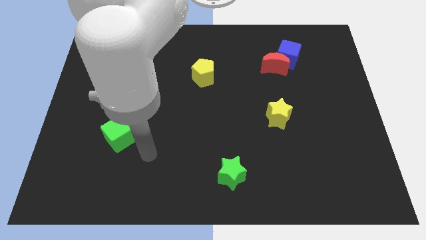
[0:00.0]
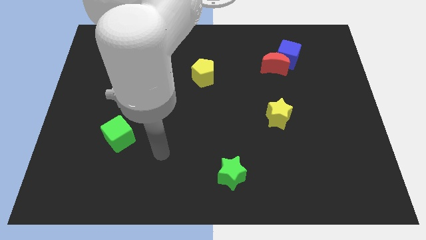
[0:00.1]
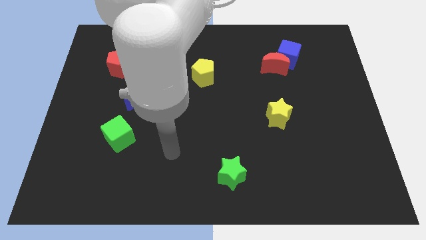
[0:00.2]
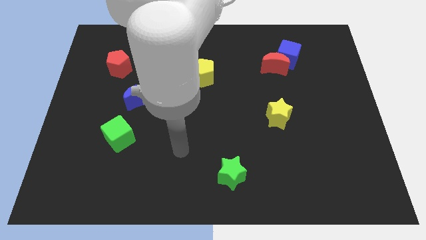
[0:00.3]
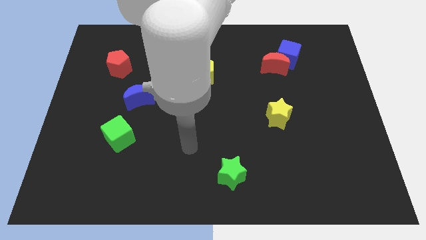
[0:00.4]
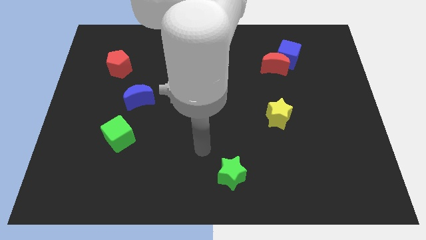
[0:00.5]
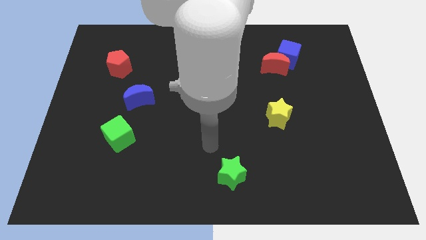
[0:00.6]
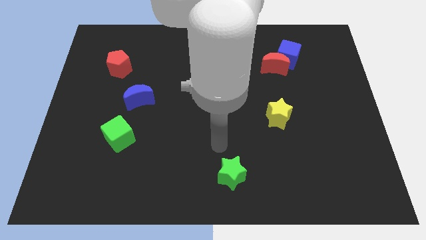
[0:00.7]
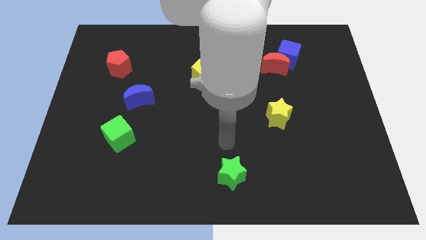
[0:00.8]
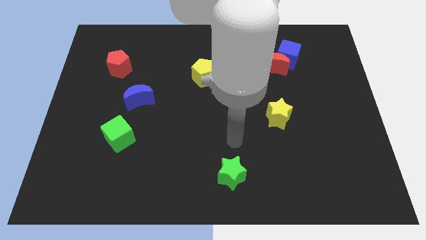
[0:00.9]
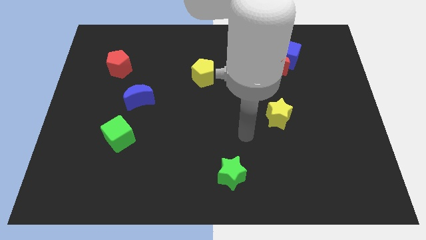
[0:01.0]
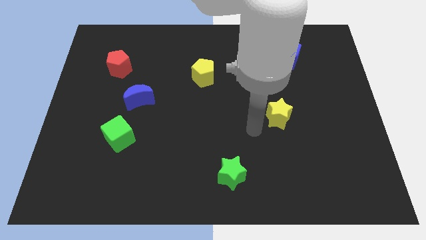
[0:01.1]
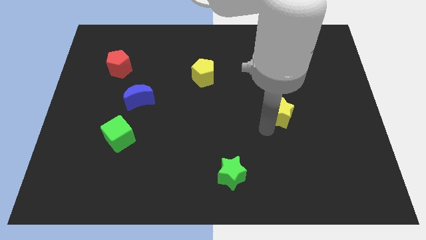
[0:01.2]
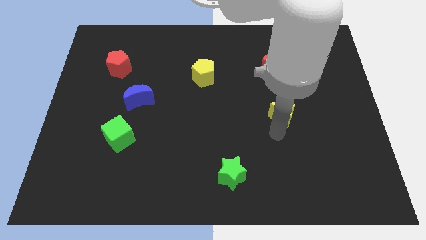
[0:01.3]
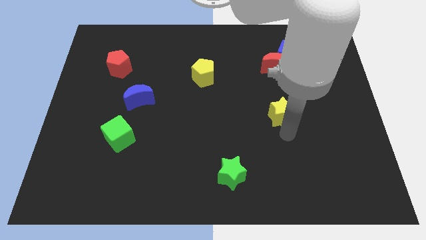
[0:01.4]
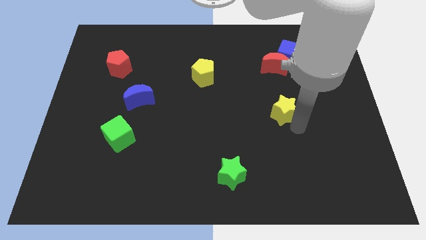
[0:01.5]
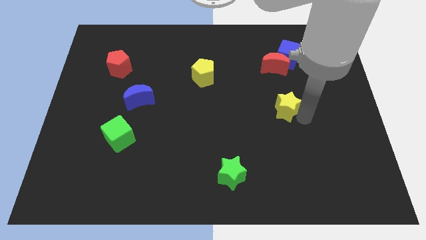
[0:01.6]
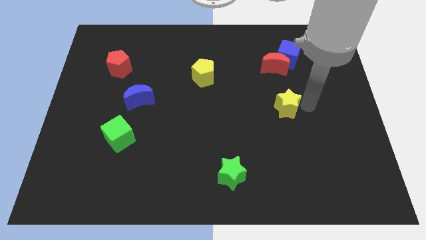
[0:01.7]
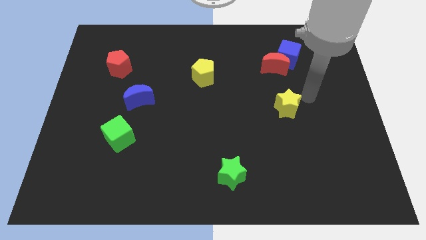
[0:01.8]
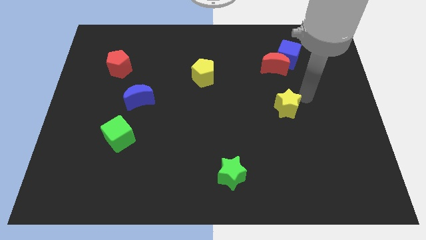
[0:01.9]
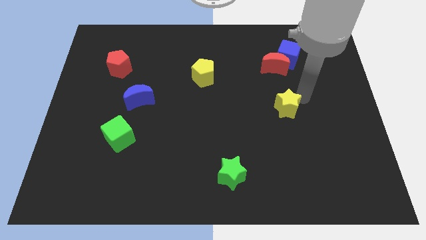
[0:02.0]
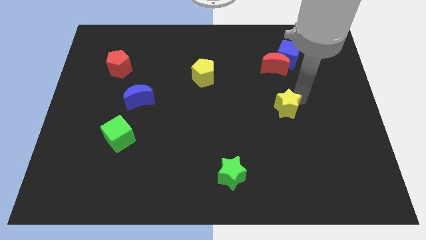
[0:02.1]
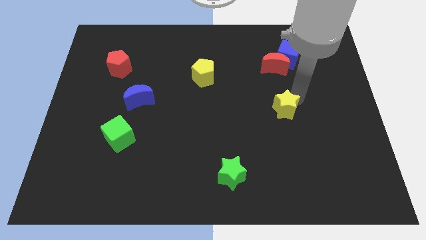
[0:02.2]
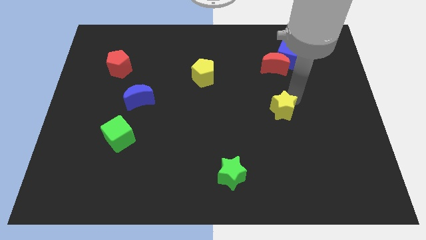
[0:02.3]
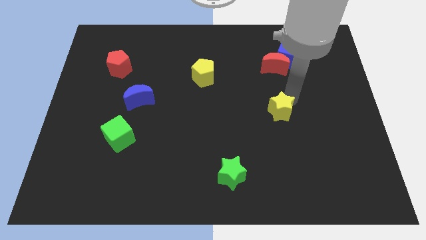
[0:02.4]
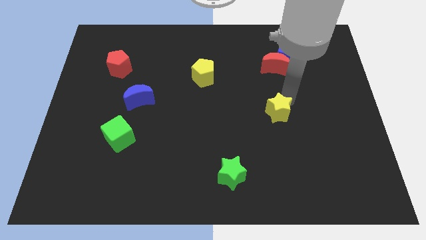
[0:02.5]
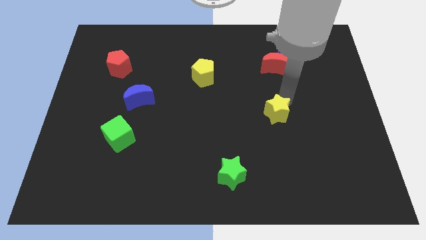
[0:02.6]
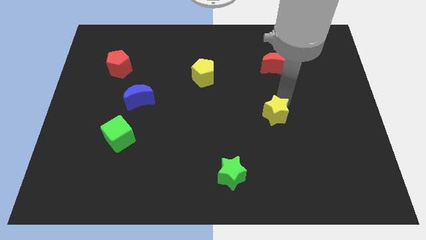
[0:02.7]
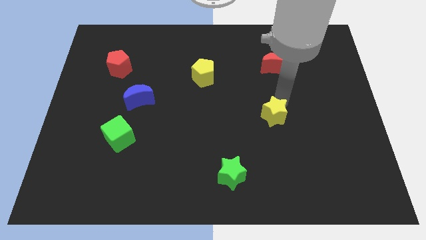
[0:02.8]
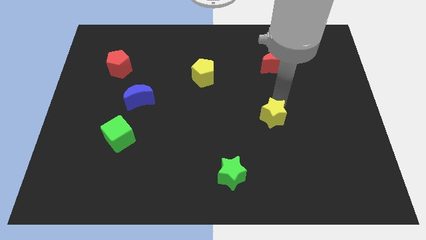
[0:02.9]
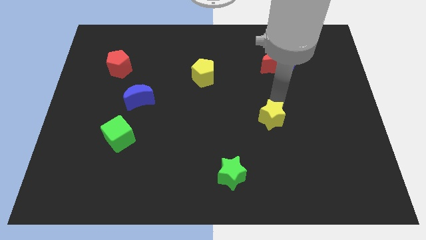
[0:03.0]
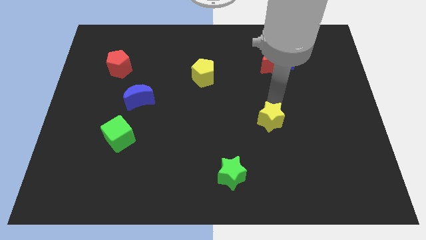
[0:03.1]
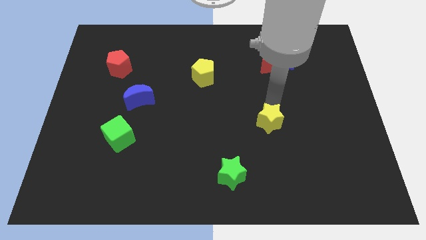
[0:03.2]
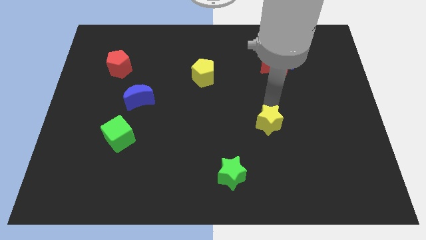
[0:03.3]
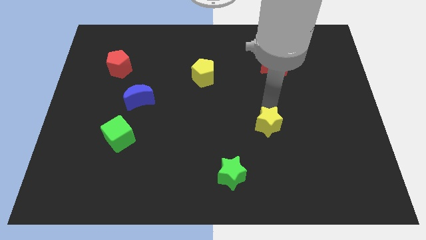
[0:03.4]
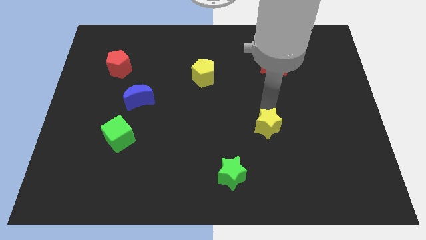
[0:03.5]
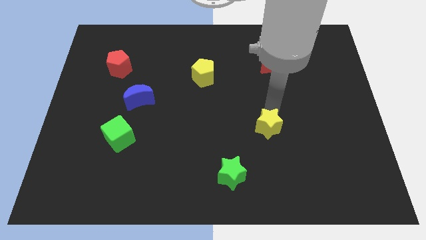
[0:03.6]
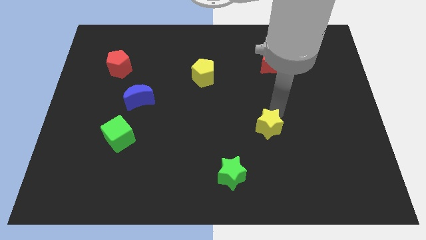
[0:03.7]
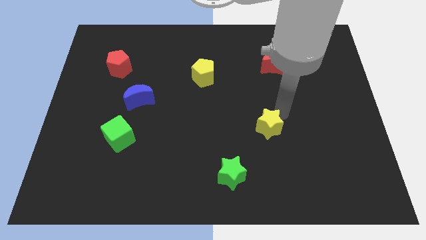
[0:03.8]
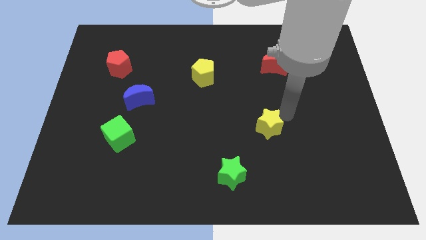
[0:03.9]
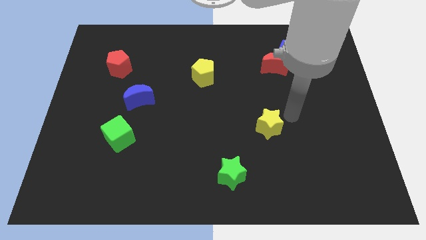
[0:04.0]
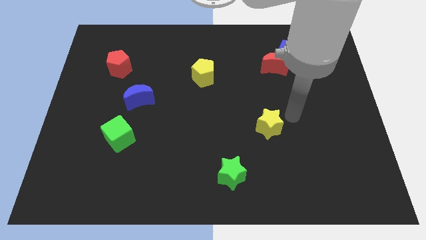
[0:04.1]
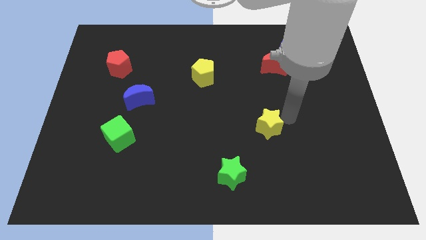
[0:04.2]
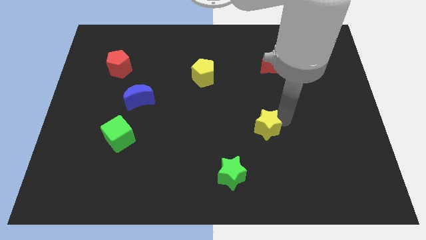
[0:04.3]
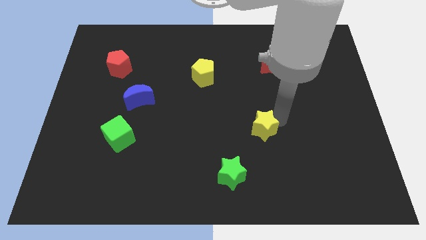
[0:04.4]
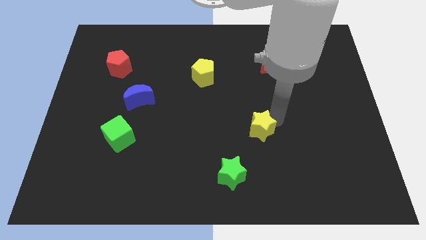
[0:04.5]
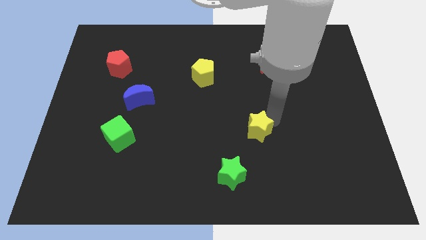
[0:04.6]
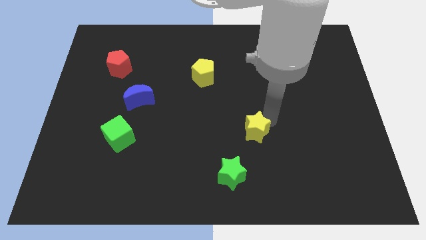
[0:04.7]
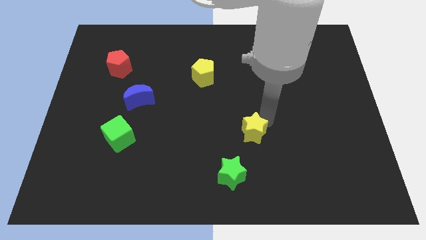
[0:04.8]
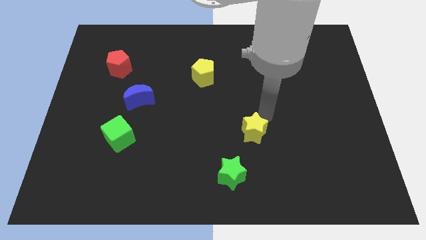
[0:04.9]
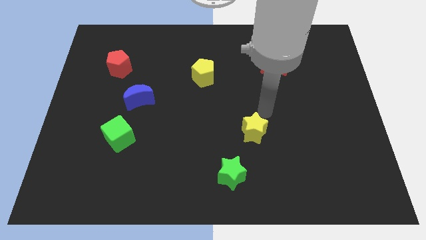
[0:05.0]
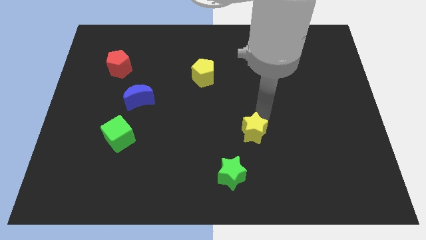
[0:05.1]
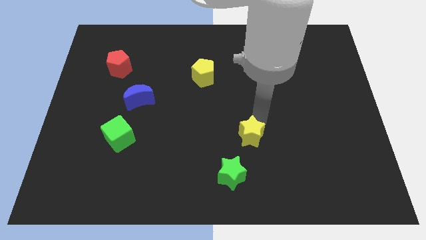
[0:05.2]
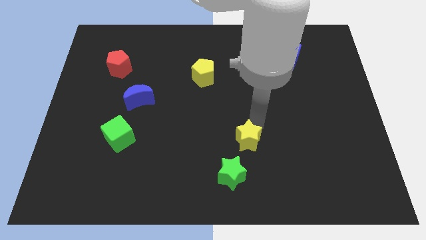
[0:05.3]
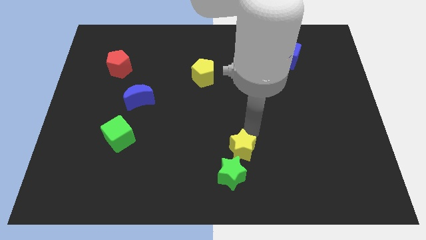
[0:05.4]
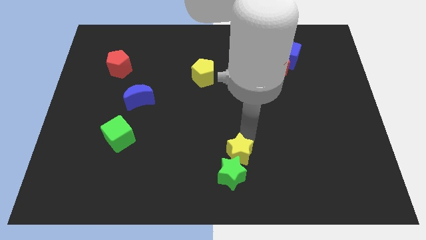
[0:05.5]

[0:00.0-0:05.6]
slide the yellow star next to the green star

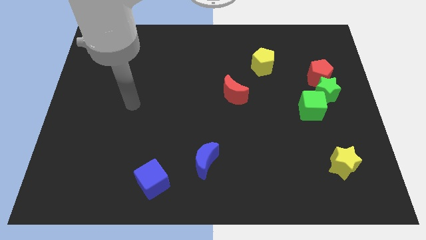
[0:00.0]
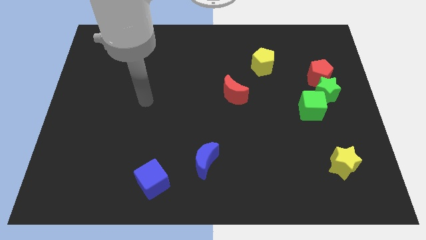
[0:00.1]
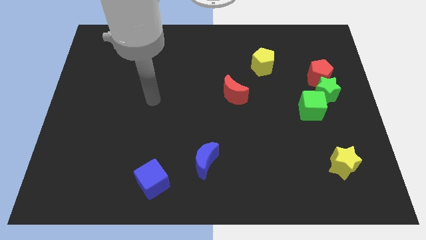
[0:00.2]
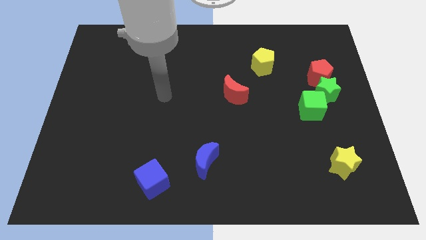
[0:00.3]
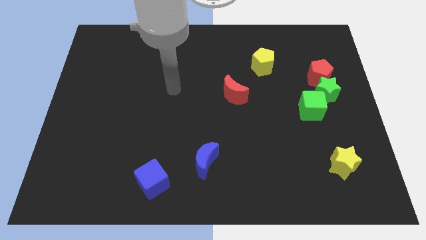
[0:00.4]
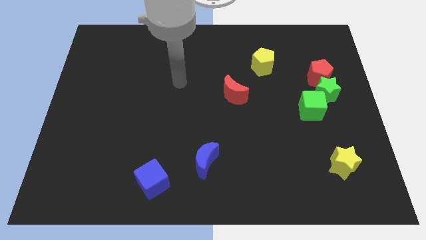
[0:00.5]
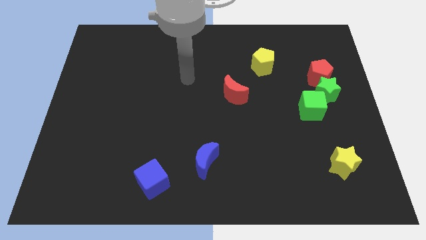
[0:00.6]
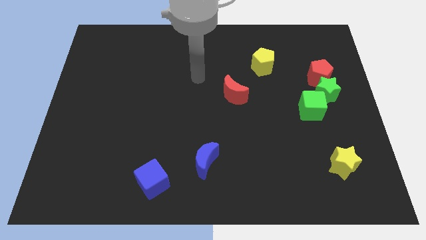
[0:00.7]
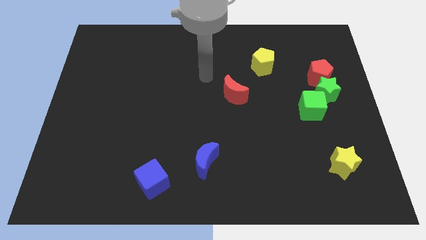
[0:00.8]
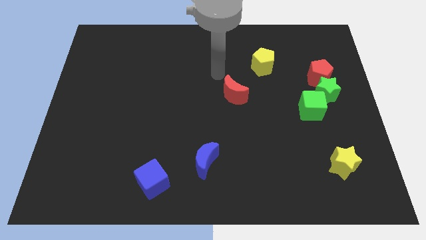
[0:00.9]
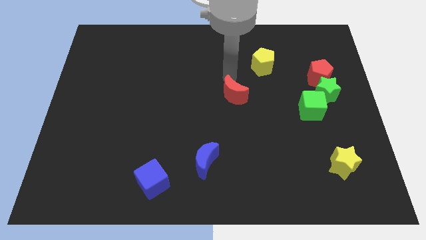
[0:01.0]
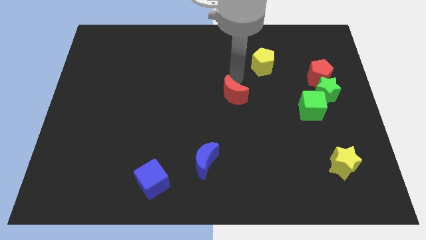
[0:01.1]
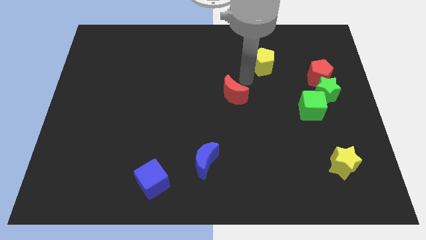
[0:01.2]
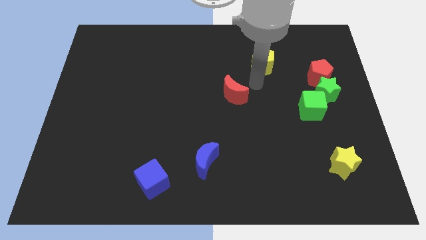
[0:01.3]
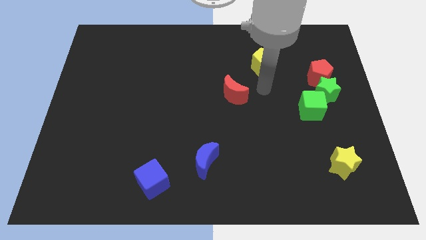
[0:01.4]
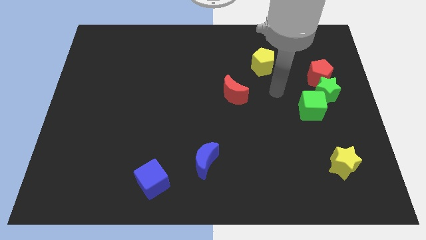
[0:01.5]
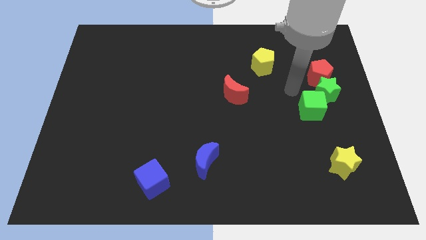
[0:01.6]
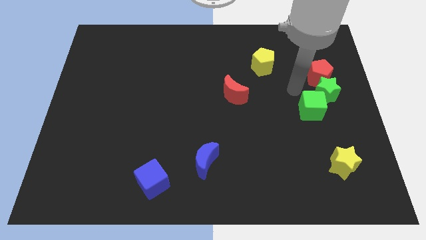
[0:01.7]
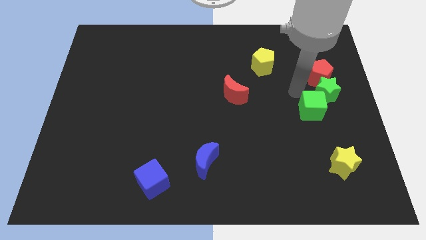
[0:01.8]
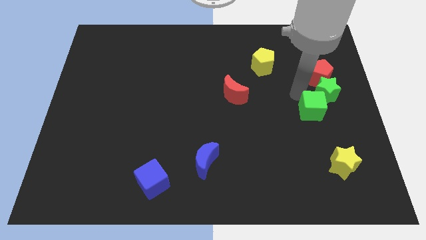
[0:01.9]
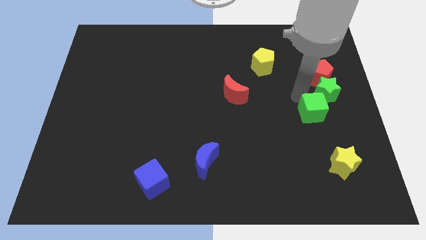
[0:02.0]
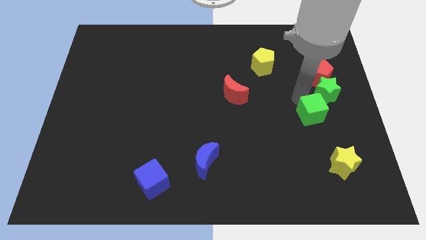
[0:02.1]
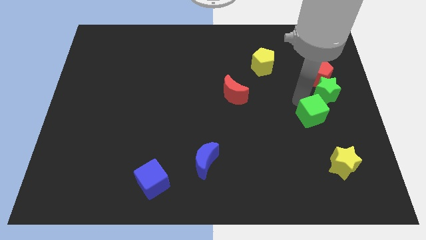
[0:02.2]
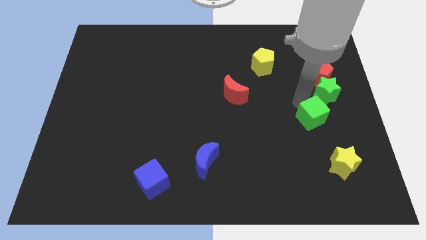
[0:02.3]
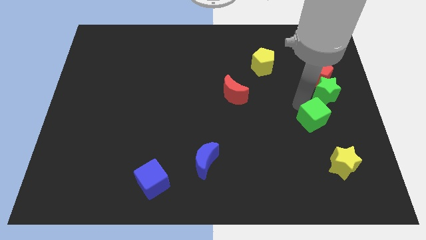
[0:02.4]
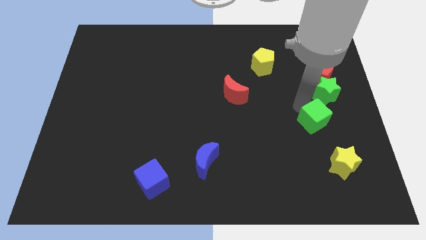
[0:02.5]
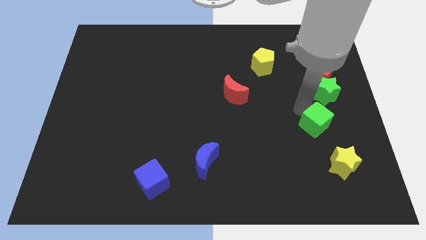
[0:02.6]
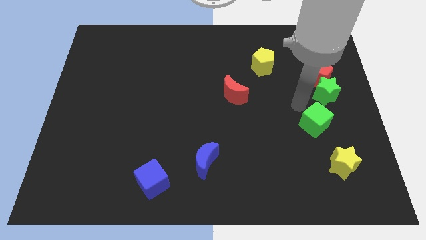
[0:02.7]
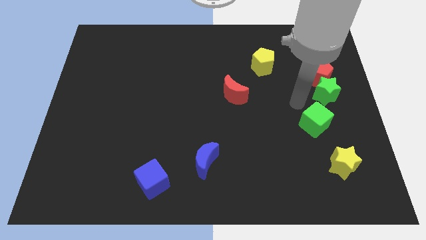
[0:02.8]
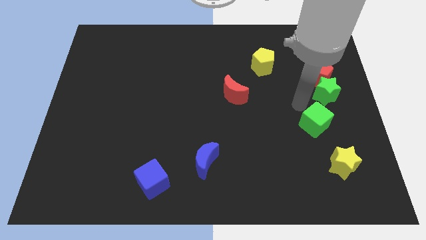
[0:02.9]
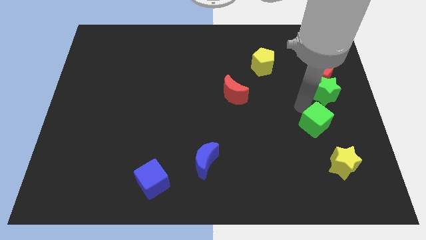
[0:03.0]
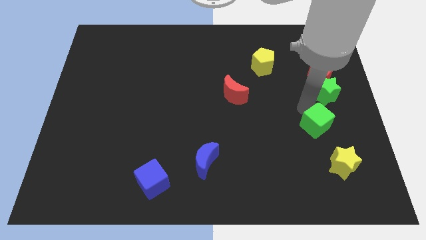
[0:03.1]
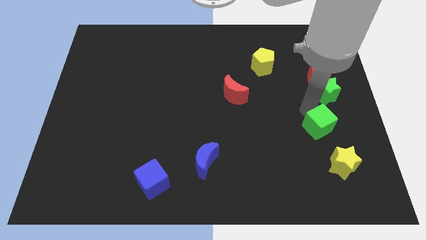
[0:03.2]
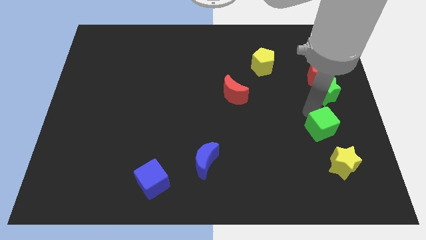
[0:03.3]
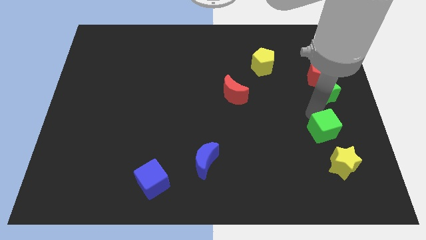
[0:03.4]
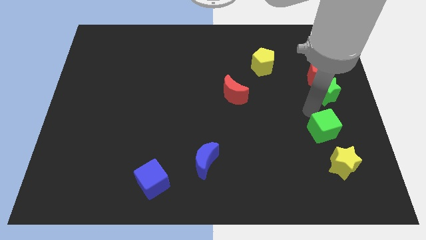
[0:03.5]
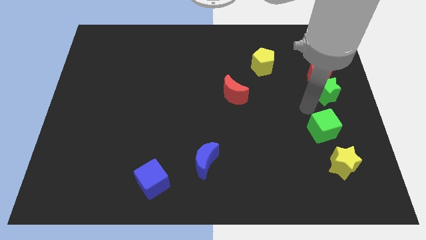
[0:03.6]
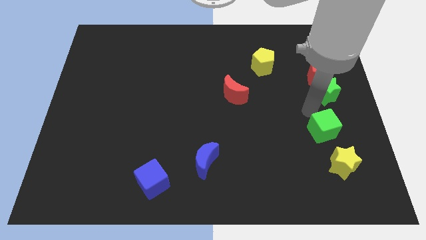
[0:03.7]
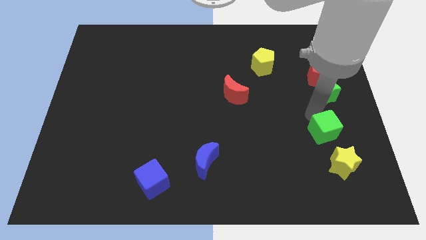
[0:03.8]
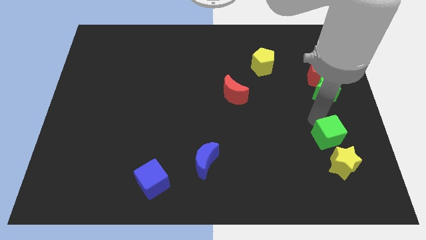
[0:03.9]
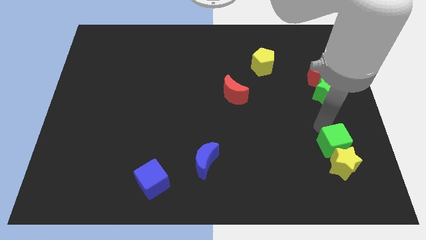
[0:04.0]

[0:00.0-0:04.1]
slide the green cube towards the yellow star
